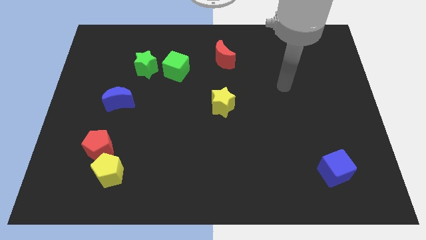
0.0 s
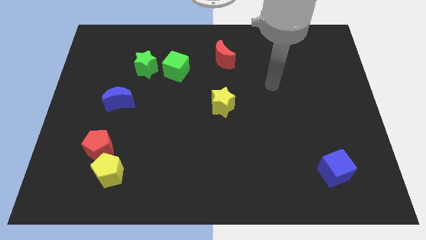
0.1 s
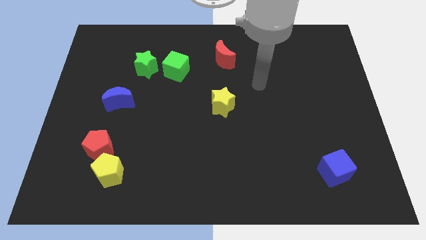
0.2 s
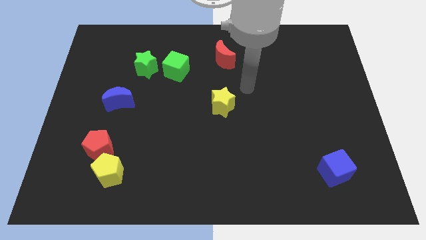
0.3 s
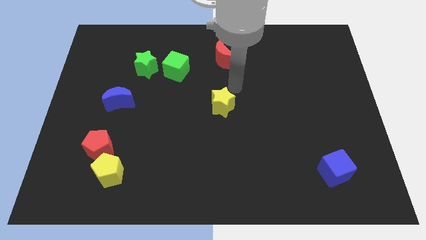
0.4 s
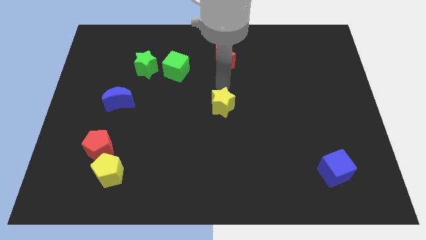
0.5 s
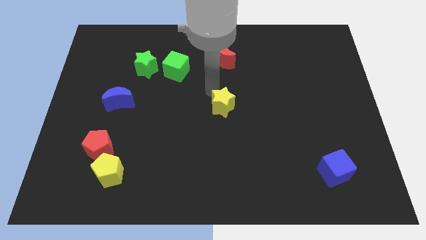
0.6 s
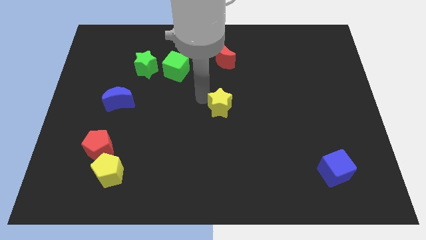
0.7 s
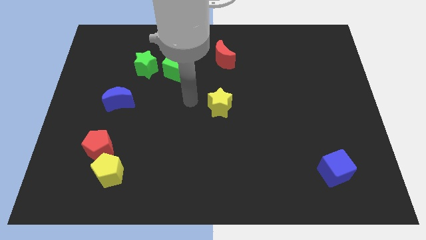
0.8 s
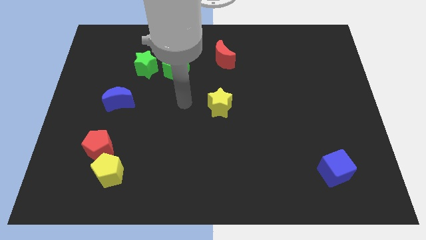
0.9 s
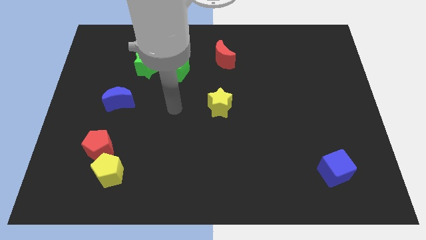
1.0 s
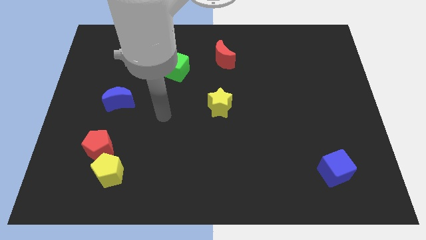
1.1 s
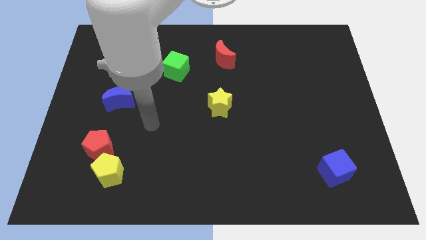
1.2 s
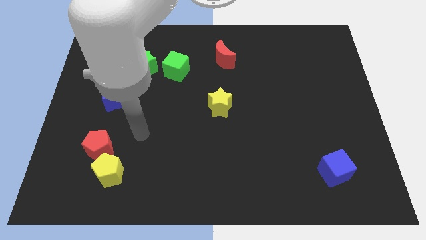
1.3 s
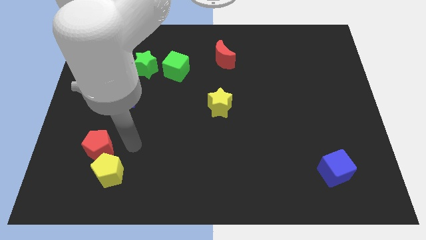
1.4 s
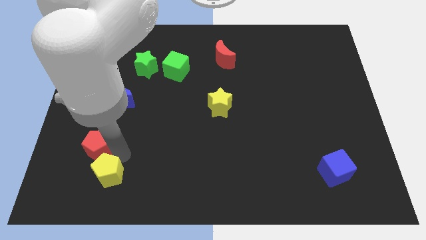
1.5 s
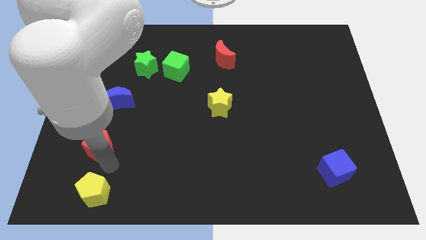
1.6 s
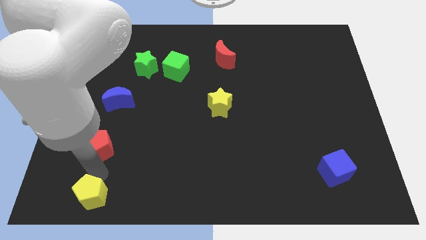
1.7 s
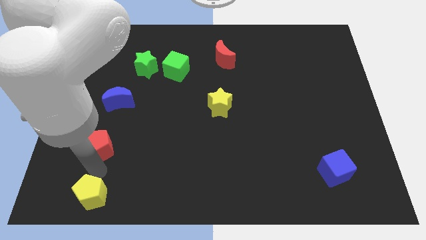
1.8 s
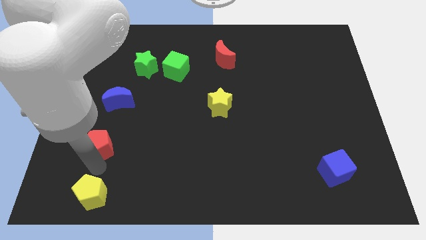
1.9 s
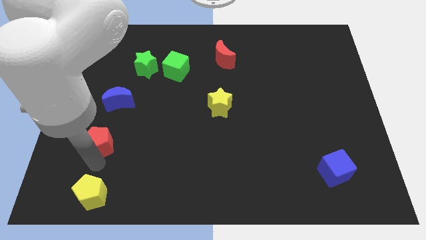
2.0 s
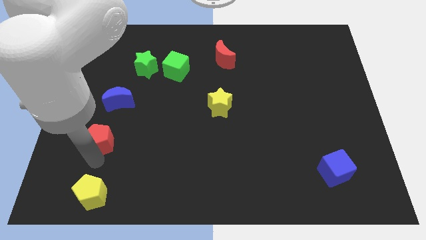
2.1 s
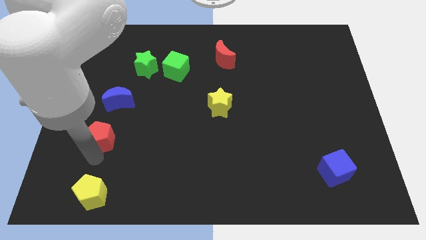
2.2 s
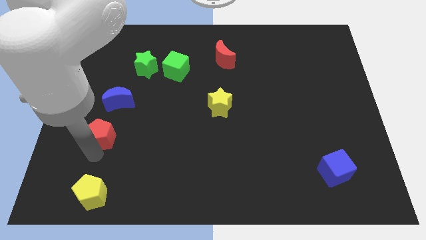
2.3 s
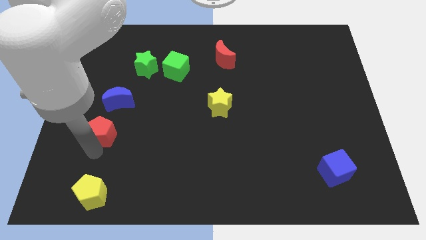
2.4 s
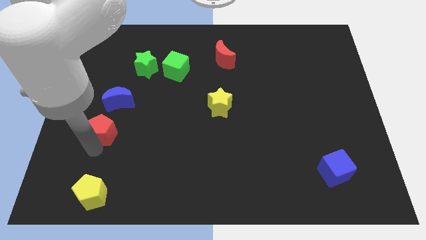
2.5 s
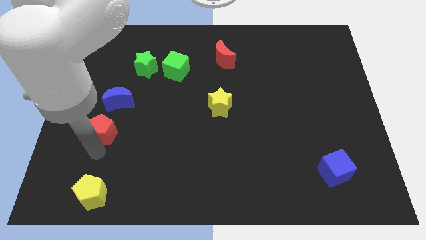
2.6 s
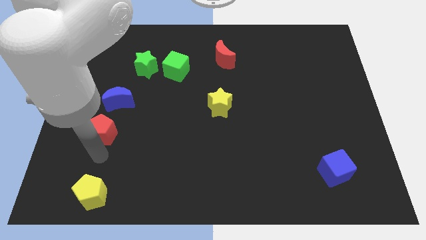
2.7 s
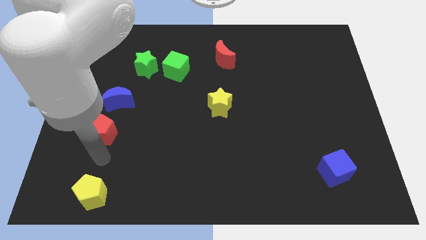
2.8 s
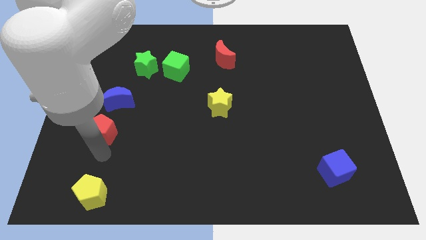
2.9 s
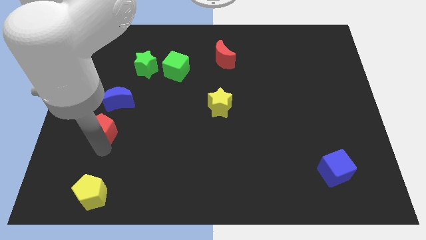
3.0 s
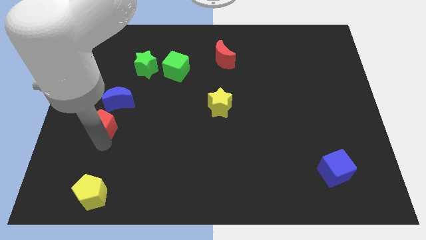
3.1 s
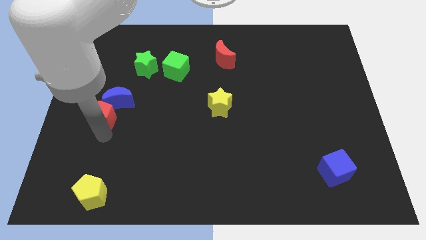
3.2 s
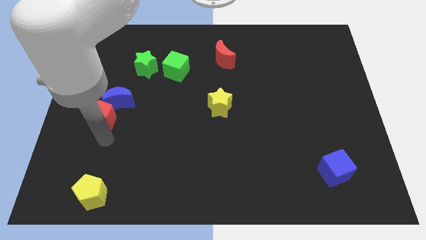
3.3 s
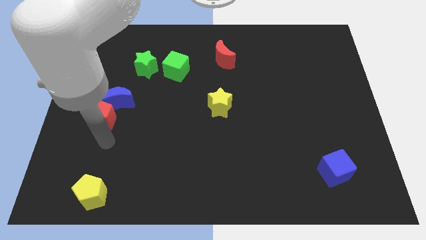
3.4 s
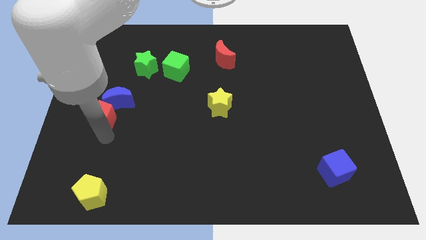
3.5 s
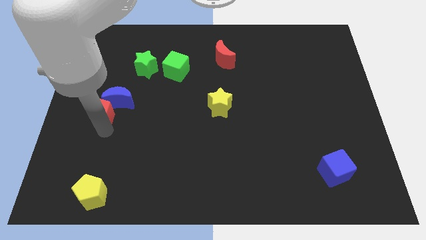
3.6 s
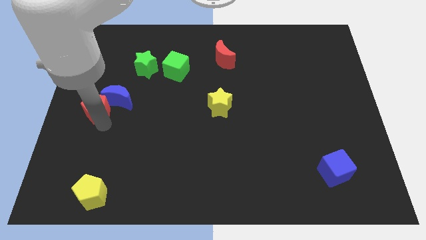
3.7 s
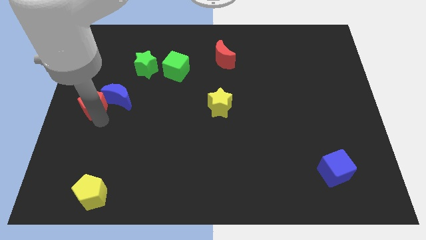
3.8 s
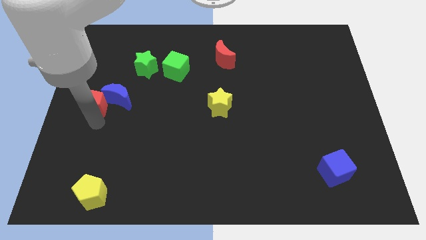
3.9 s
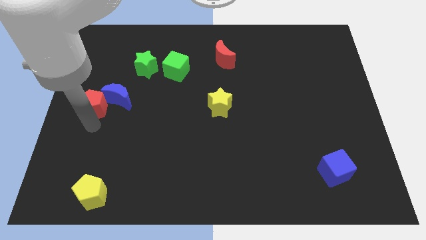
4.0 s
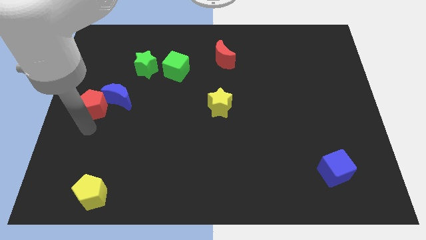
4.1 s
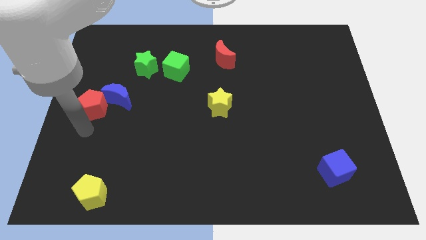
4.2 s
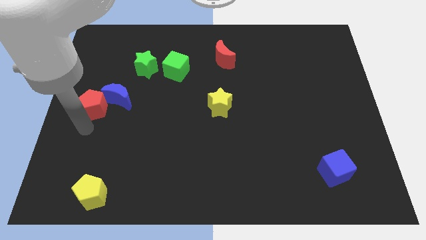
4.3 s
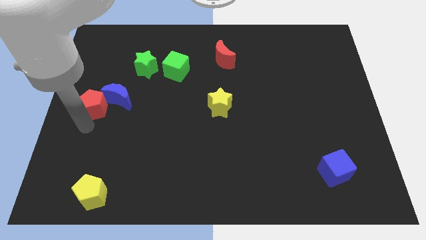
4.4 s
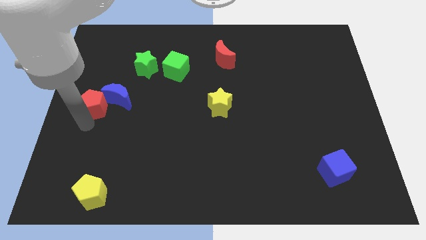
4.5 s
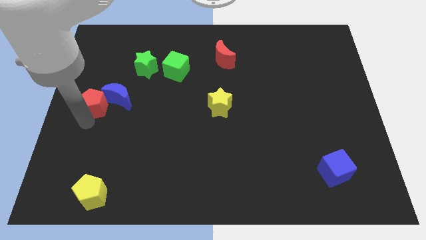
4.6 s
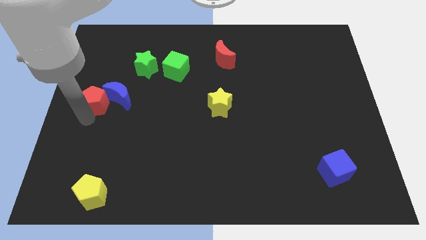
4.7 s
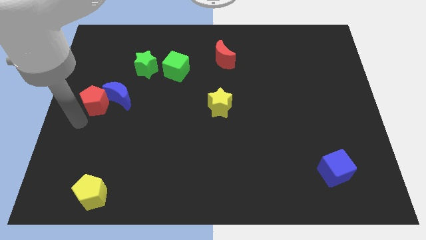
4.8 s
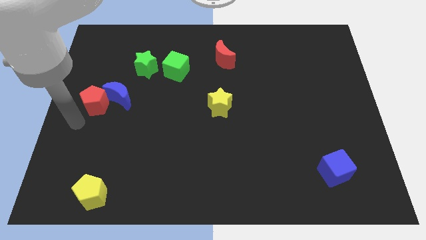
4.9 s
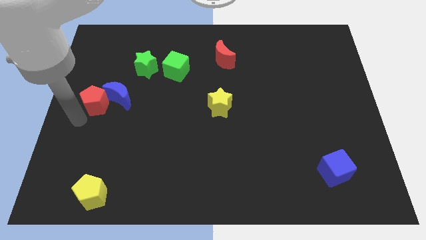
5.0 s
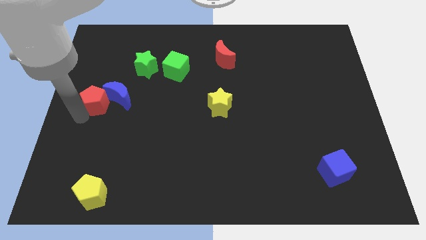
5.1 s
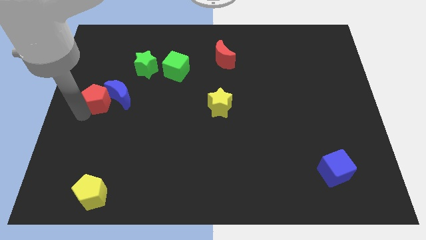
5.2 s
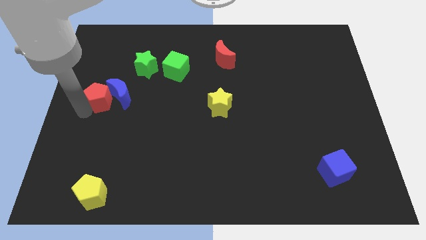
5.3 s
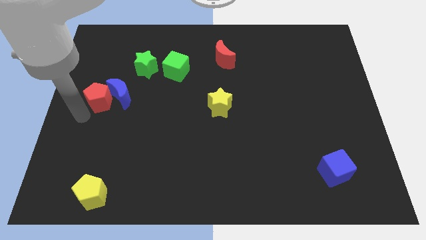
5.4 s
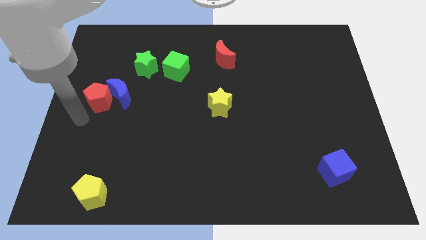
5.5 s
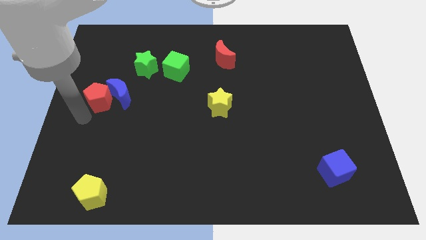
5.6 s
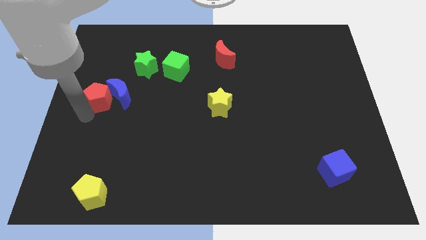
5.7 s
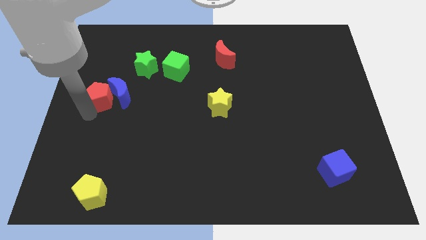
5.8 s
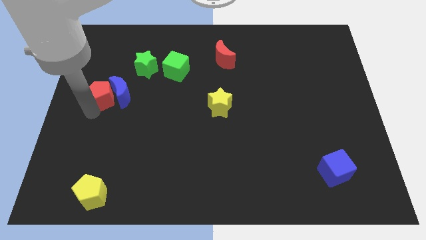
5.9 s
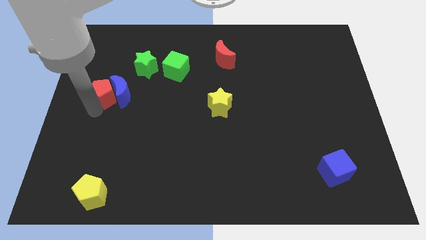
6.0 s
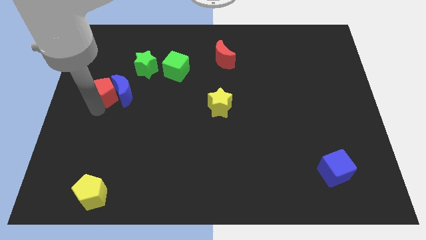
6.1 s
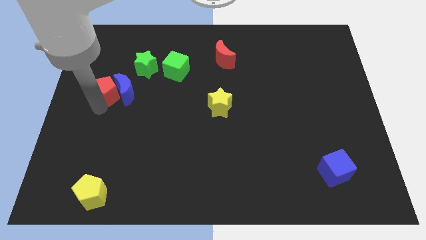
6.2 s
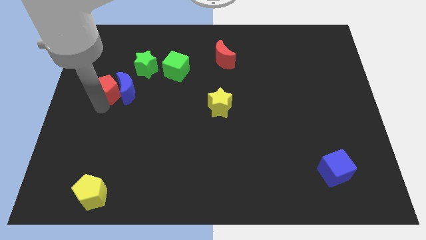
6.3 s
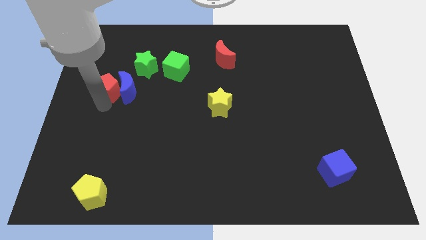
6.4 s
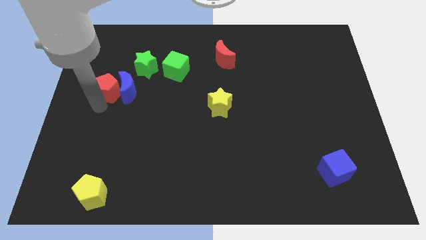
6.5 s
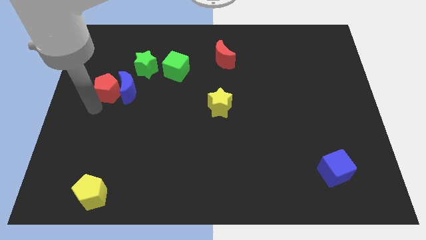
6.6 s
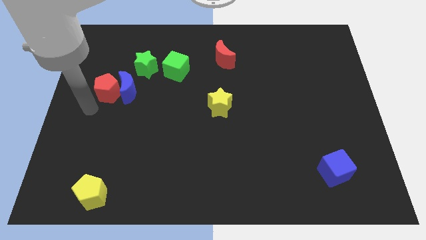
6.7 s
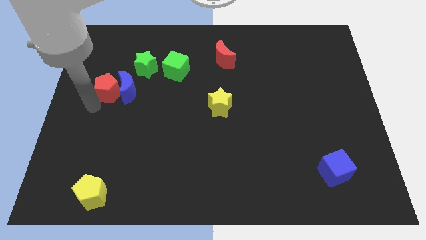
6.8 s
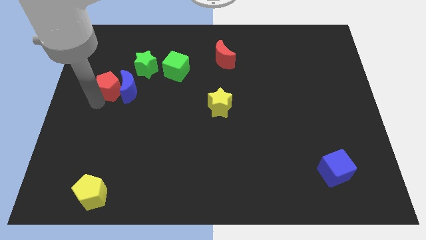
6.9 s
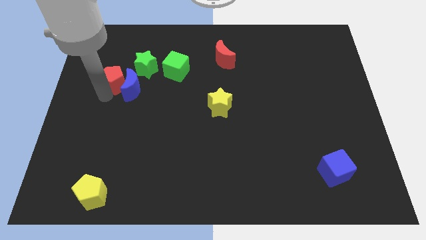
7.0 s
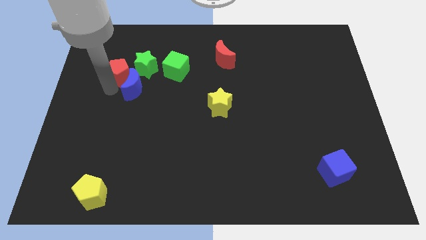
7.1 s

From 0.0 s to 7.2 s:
push the red pentagon to the top of the blue moon

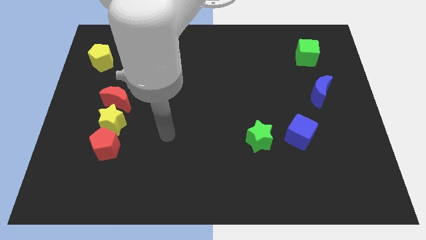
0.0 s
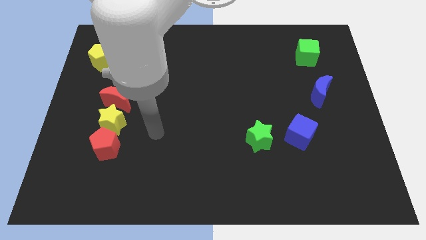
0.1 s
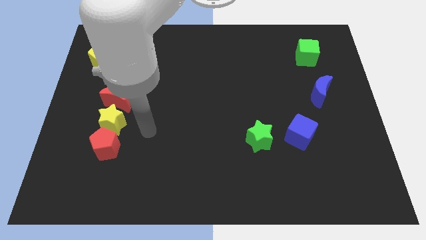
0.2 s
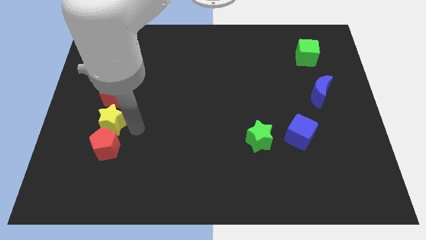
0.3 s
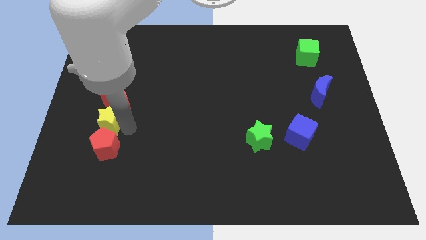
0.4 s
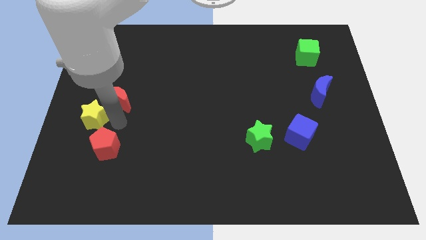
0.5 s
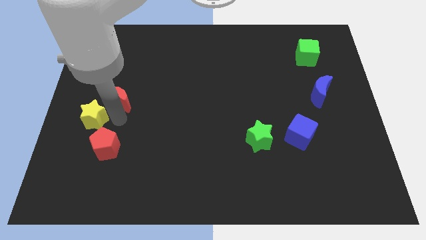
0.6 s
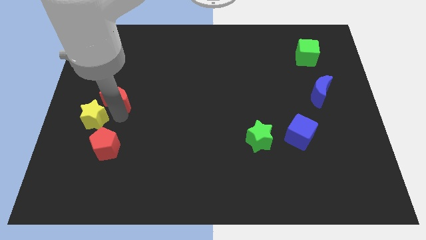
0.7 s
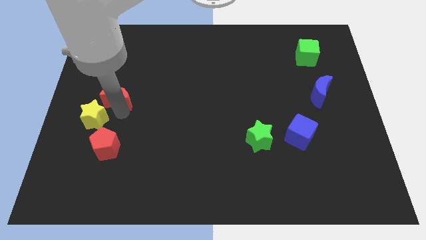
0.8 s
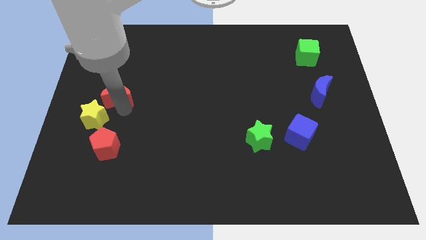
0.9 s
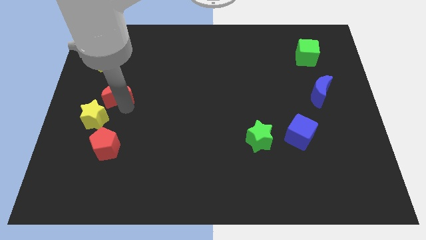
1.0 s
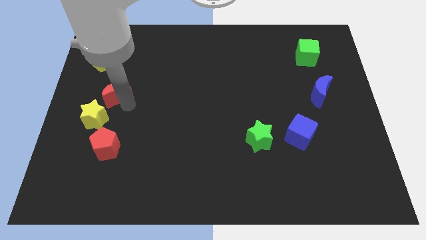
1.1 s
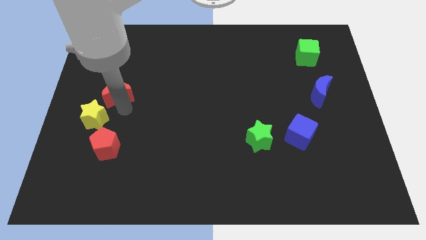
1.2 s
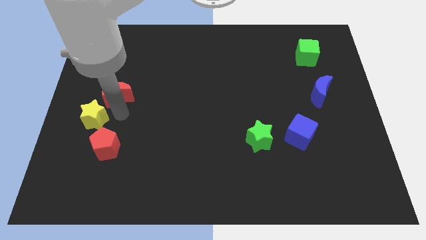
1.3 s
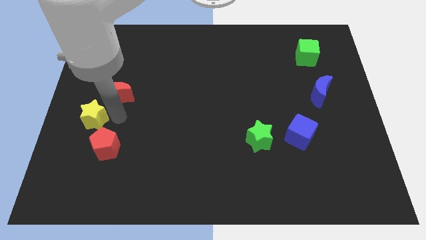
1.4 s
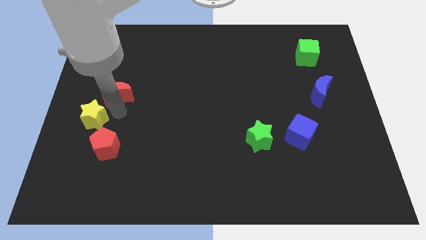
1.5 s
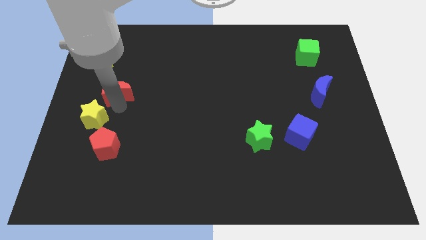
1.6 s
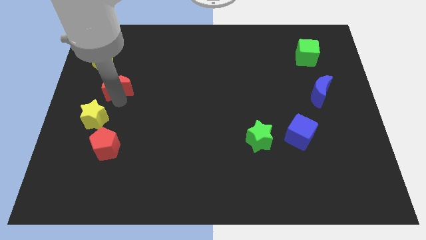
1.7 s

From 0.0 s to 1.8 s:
push the red moon to the bottom right of the yellow pentagon
